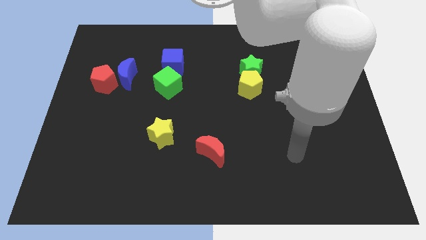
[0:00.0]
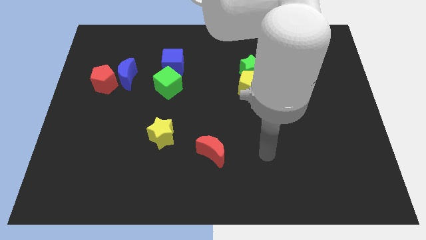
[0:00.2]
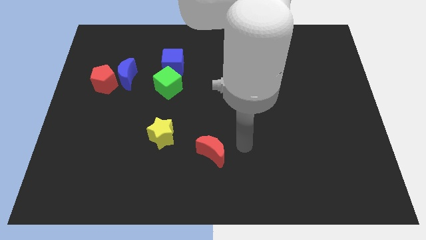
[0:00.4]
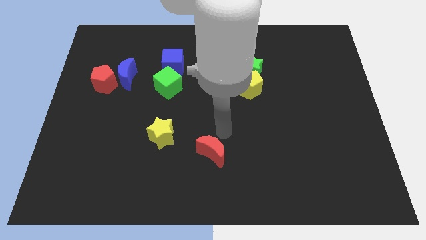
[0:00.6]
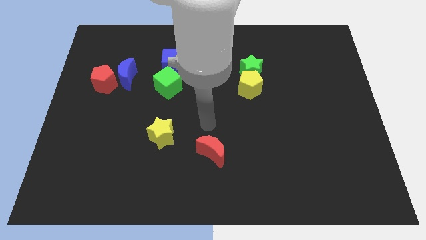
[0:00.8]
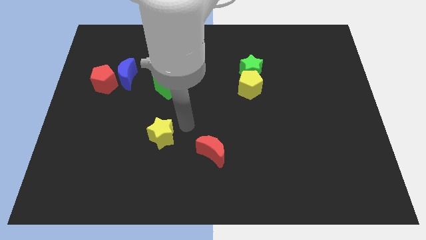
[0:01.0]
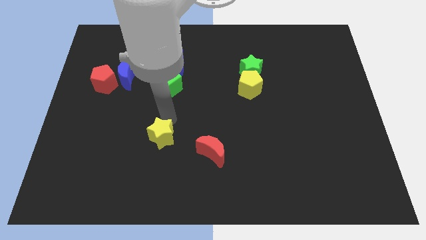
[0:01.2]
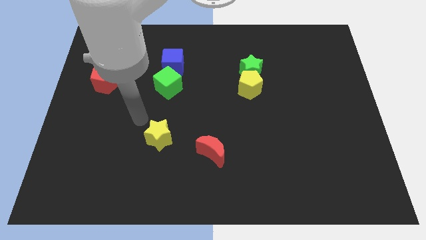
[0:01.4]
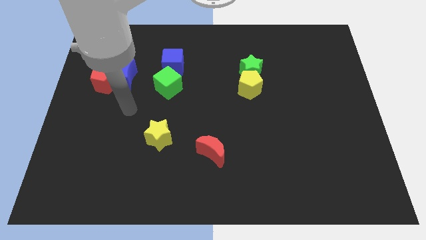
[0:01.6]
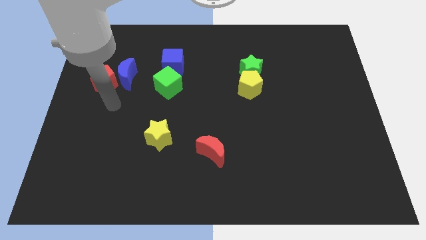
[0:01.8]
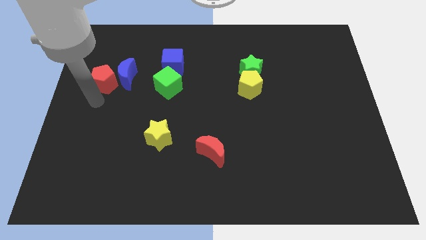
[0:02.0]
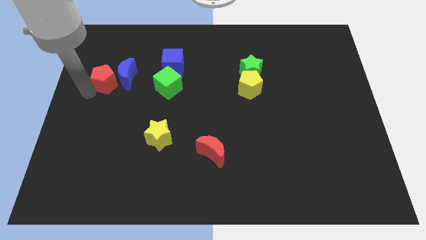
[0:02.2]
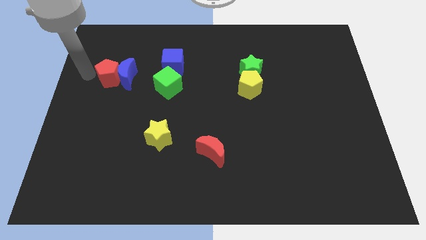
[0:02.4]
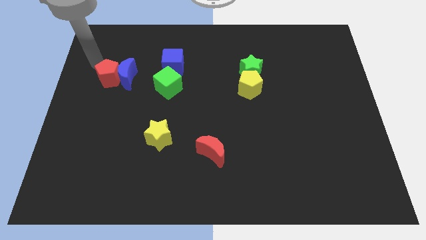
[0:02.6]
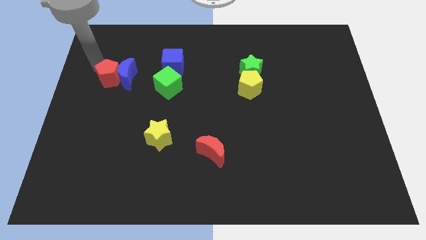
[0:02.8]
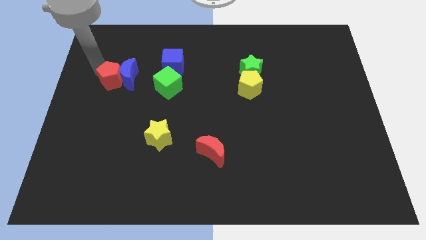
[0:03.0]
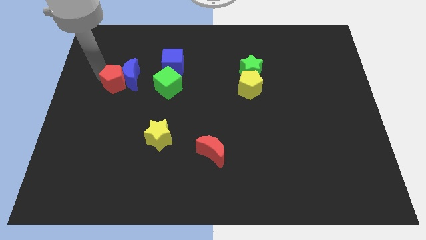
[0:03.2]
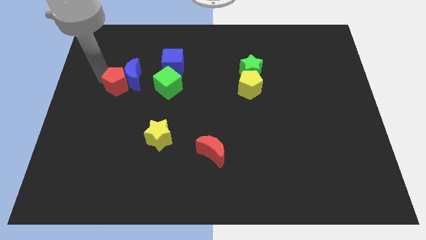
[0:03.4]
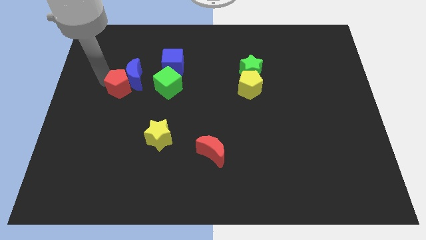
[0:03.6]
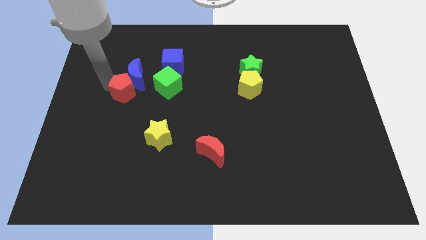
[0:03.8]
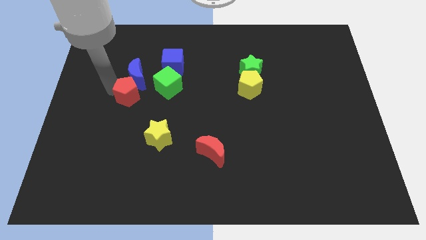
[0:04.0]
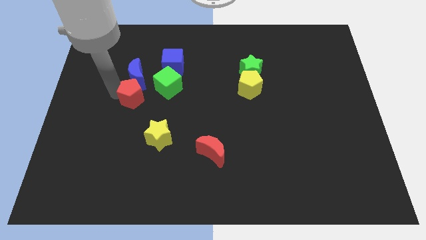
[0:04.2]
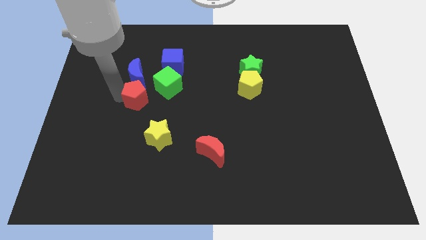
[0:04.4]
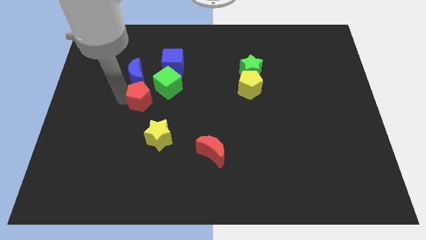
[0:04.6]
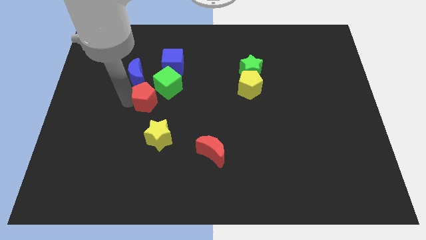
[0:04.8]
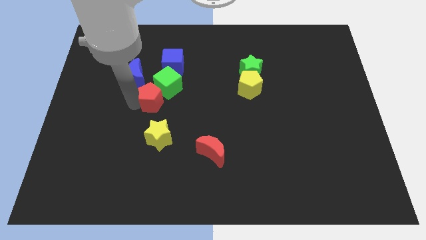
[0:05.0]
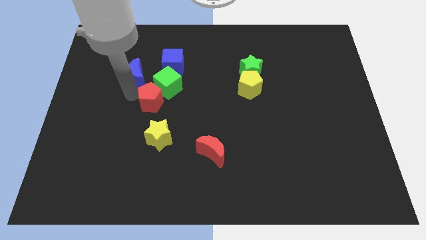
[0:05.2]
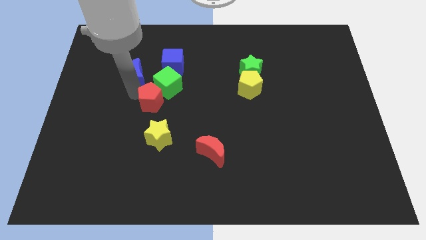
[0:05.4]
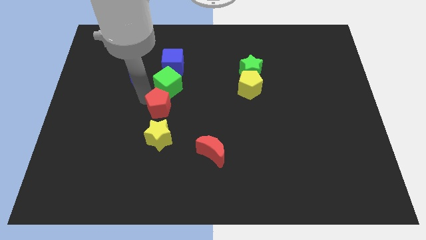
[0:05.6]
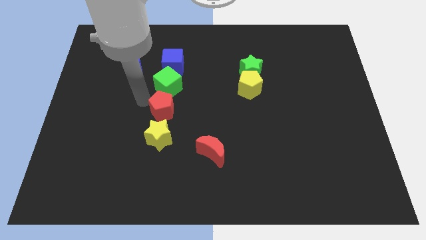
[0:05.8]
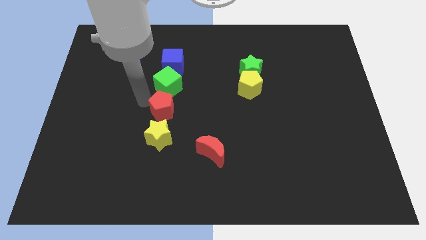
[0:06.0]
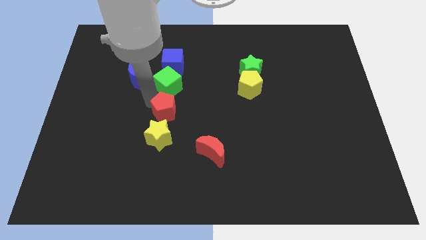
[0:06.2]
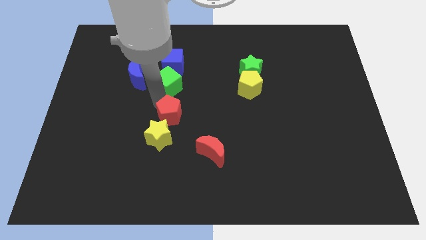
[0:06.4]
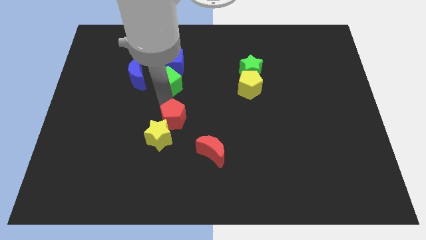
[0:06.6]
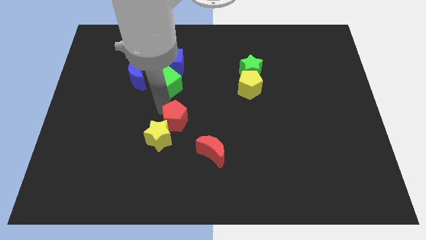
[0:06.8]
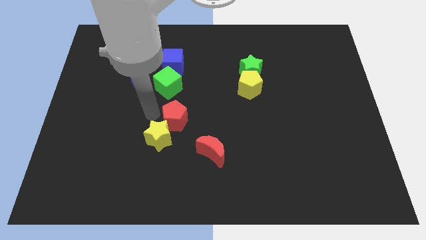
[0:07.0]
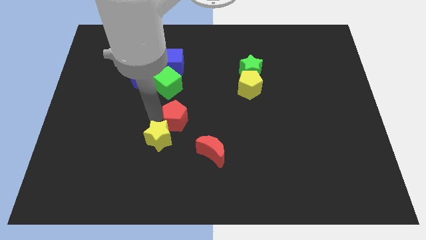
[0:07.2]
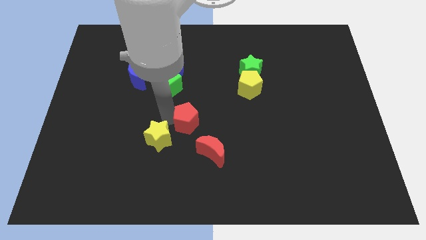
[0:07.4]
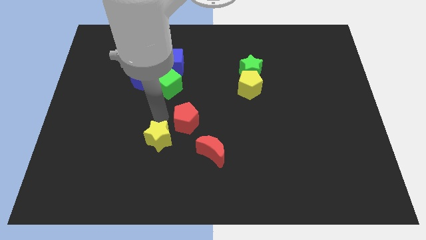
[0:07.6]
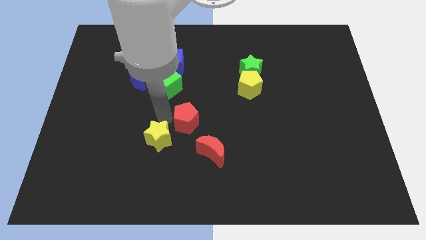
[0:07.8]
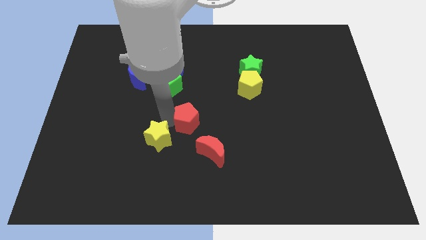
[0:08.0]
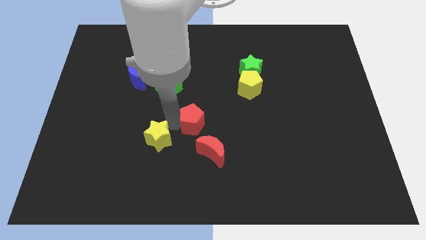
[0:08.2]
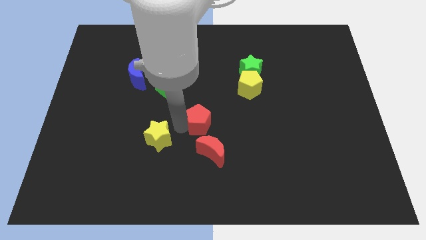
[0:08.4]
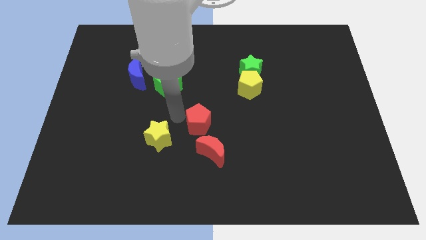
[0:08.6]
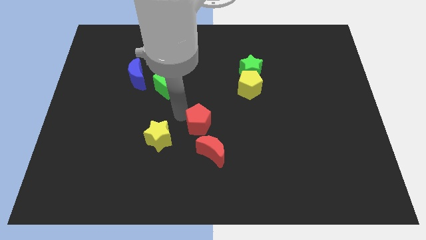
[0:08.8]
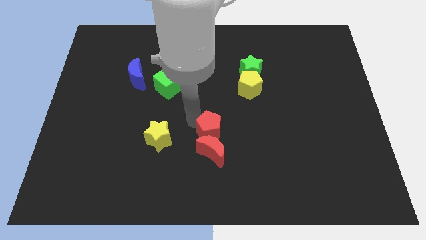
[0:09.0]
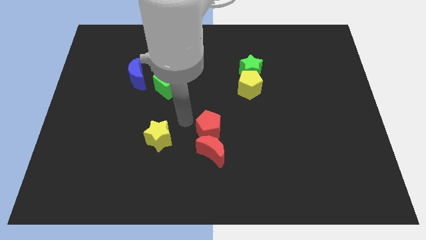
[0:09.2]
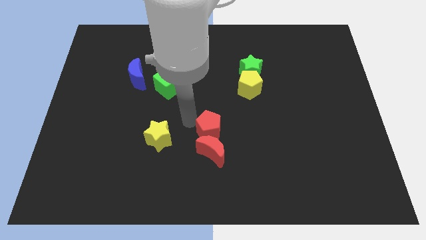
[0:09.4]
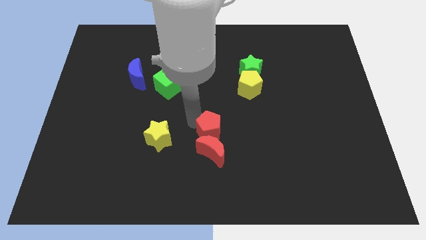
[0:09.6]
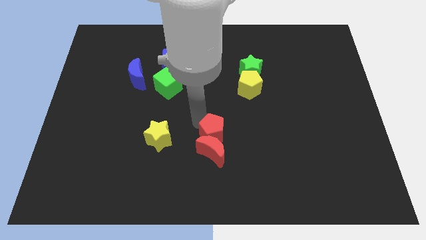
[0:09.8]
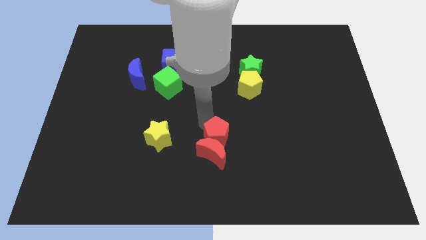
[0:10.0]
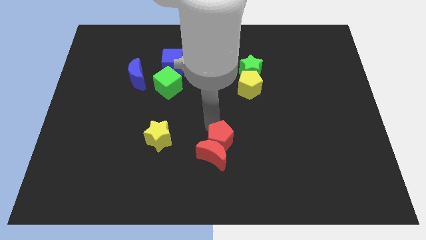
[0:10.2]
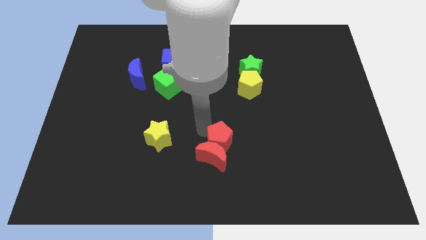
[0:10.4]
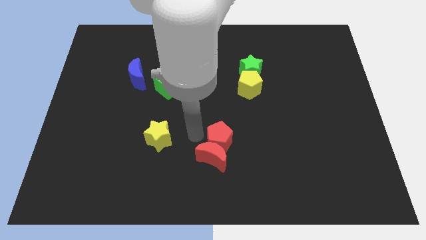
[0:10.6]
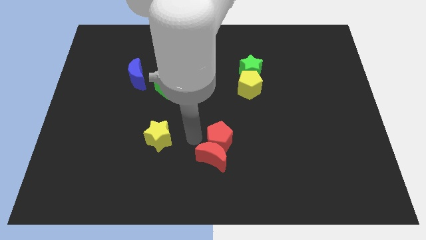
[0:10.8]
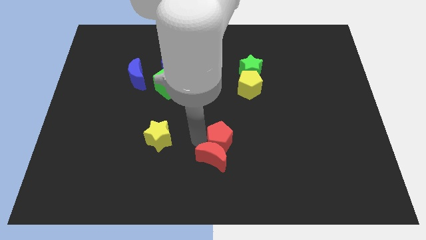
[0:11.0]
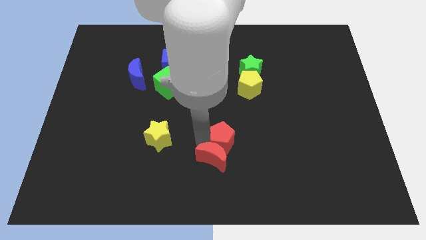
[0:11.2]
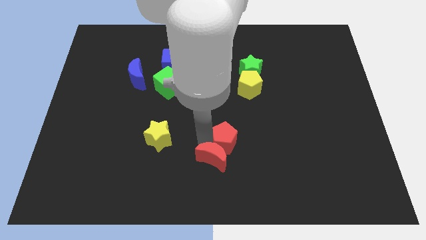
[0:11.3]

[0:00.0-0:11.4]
put the red pentagon just right of the red moon

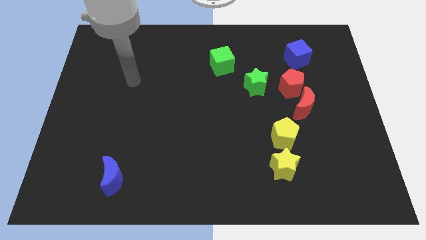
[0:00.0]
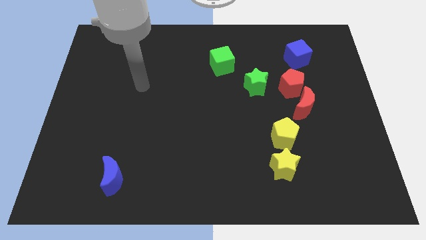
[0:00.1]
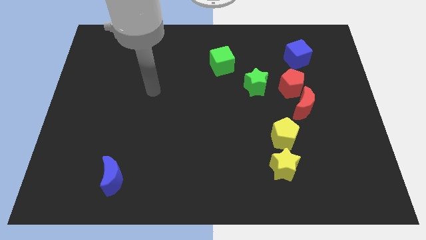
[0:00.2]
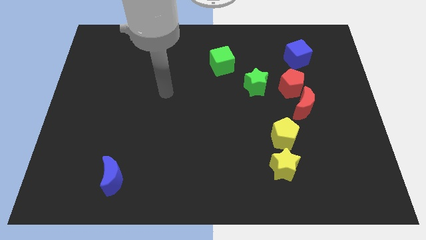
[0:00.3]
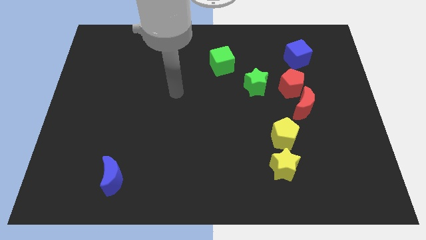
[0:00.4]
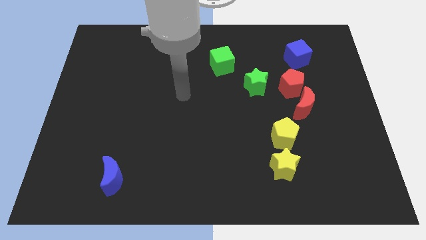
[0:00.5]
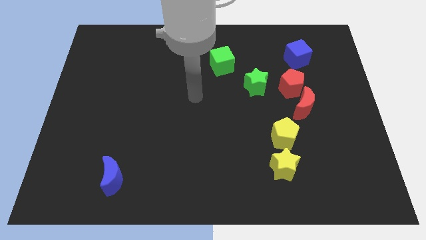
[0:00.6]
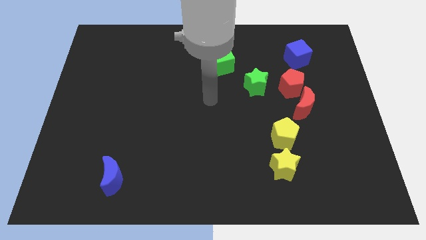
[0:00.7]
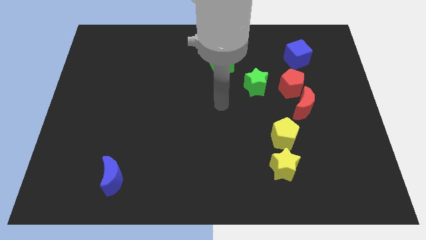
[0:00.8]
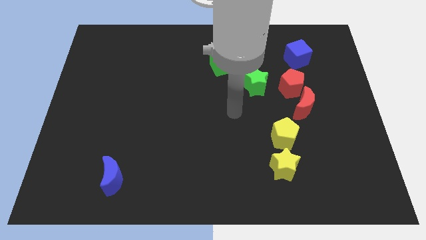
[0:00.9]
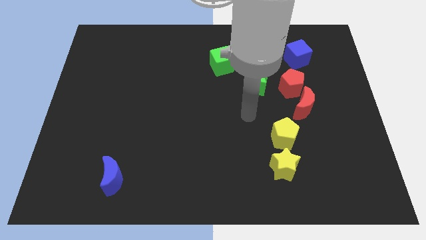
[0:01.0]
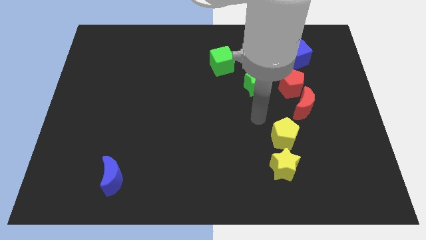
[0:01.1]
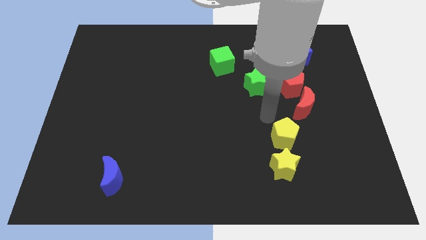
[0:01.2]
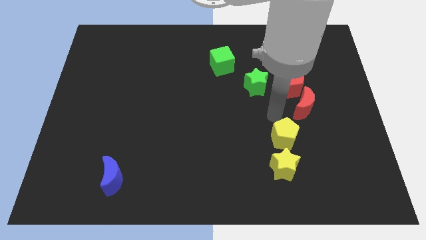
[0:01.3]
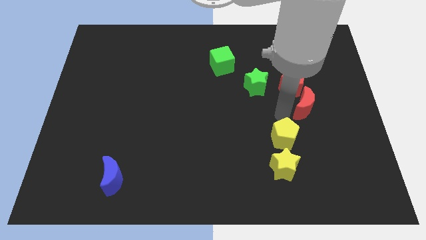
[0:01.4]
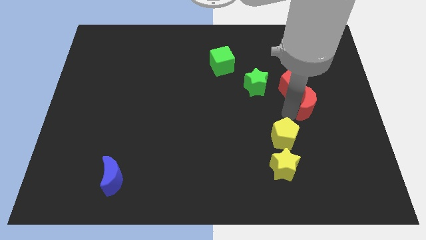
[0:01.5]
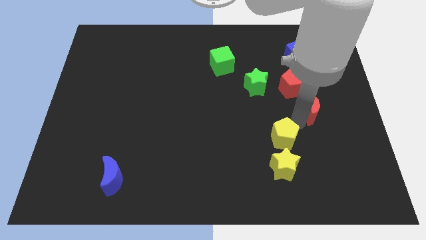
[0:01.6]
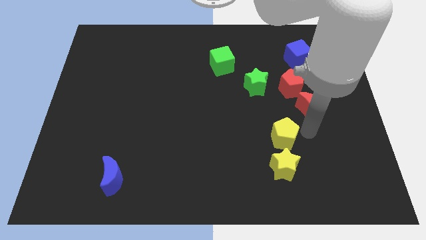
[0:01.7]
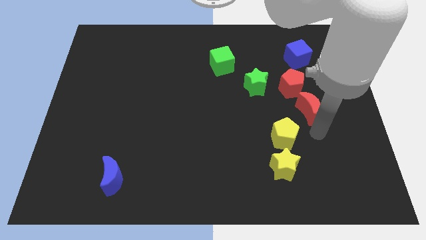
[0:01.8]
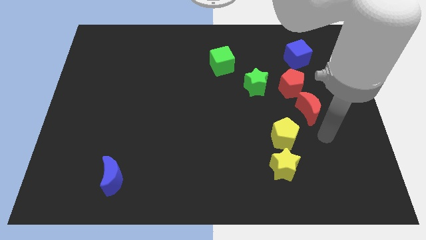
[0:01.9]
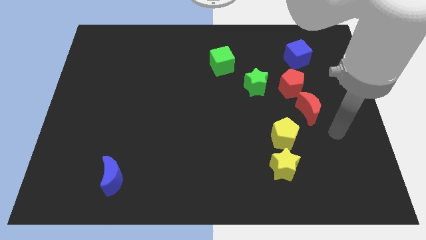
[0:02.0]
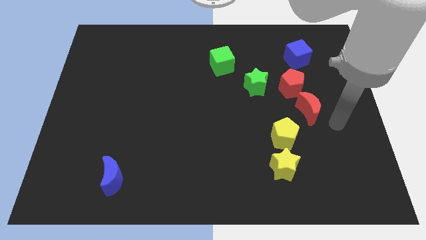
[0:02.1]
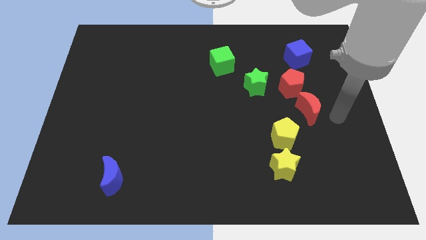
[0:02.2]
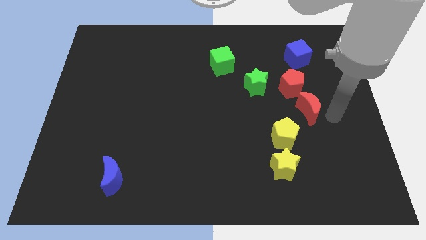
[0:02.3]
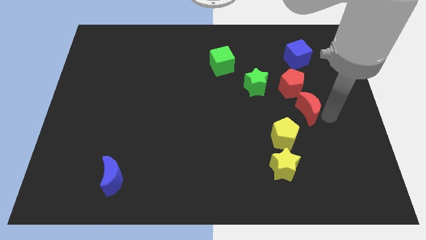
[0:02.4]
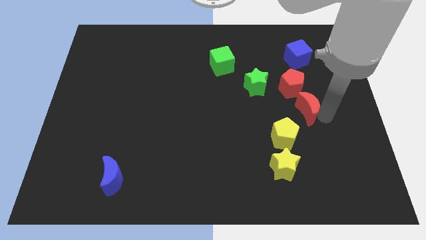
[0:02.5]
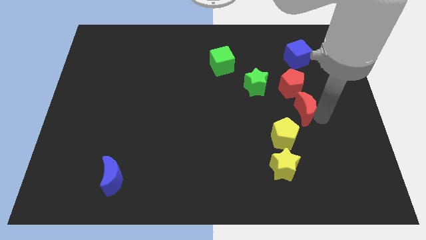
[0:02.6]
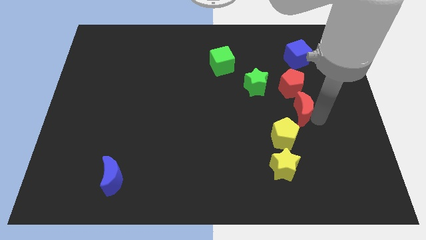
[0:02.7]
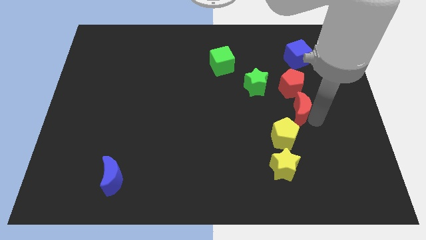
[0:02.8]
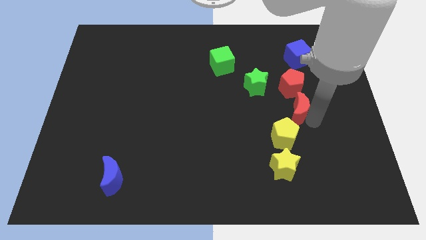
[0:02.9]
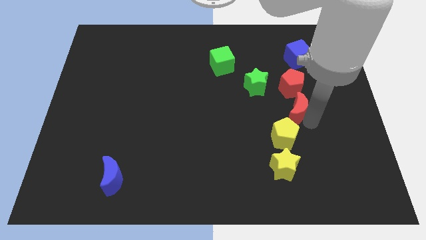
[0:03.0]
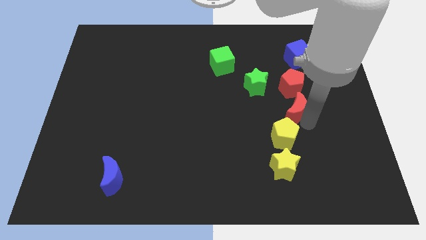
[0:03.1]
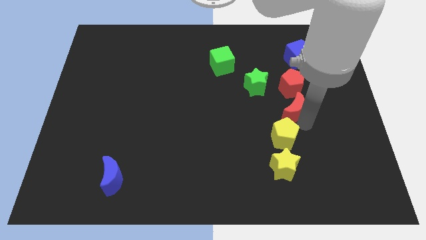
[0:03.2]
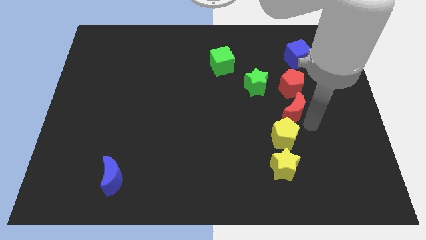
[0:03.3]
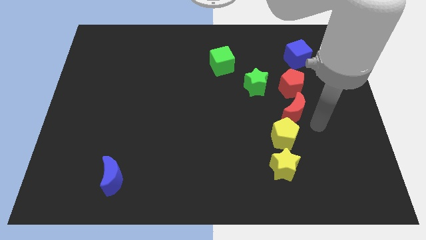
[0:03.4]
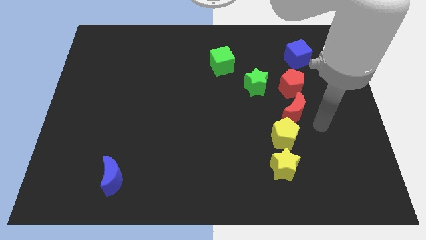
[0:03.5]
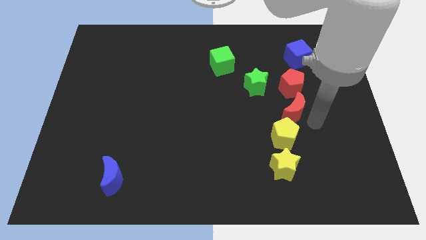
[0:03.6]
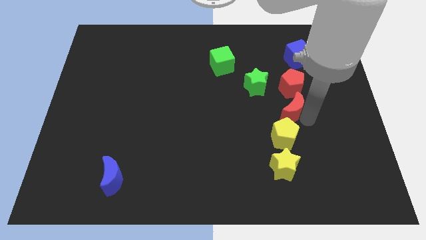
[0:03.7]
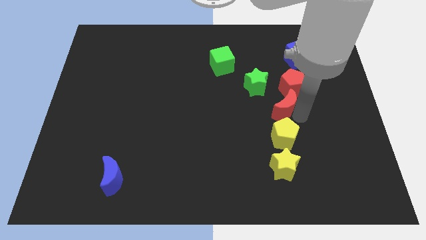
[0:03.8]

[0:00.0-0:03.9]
slide the red moon diagonally down and to the left of the red pentagon
